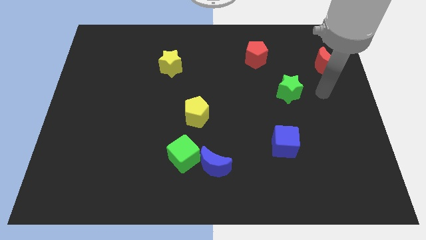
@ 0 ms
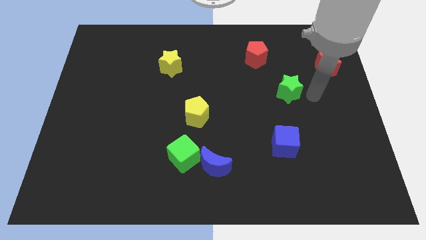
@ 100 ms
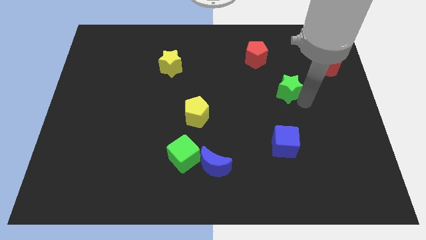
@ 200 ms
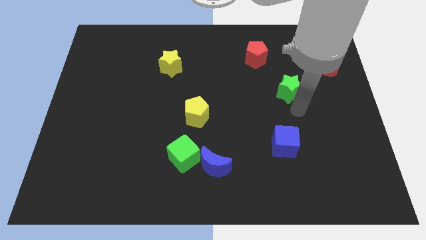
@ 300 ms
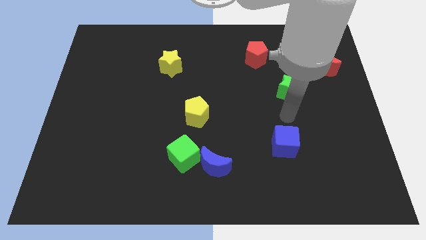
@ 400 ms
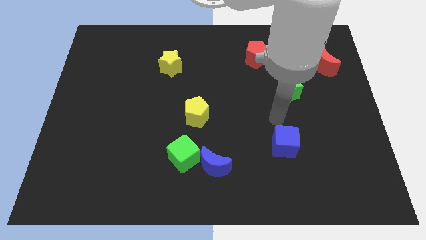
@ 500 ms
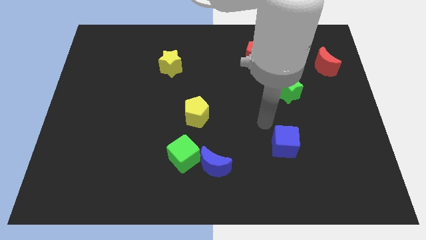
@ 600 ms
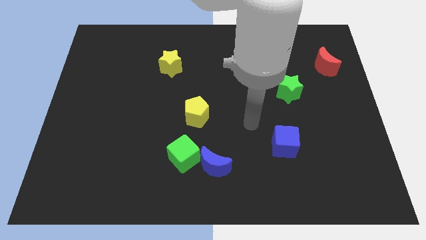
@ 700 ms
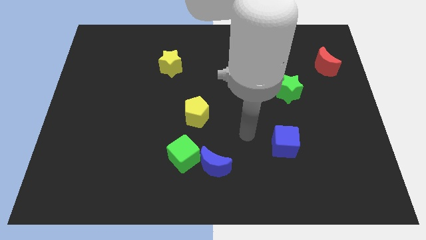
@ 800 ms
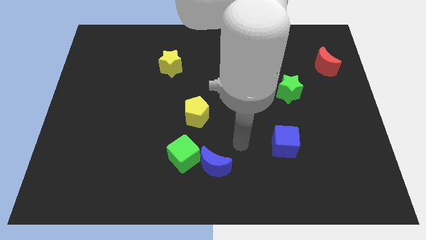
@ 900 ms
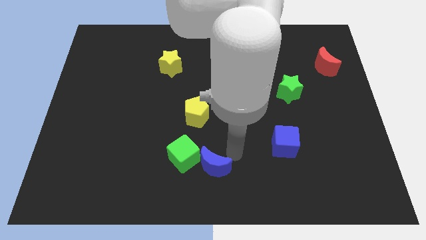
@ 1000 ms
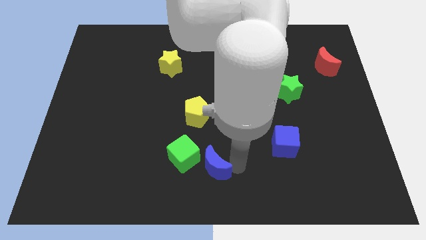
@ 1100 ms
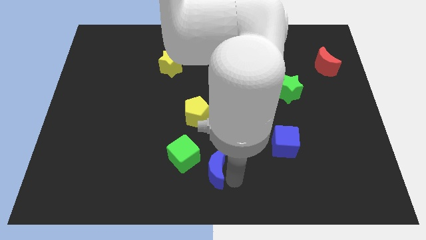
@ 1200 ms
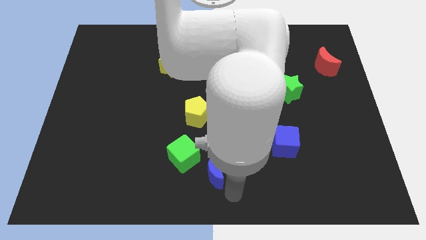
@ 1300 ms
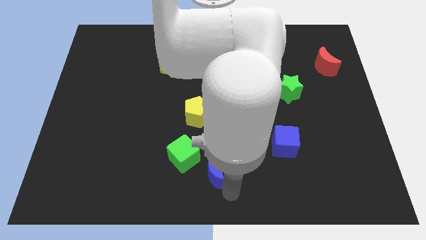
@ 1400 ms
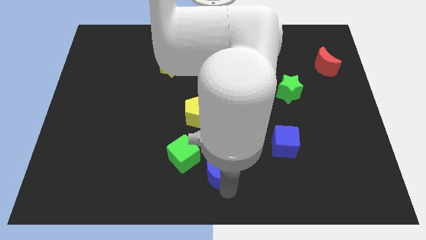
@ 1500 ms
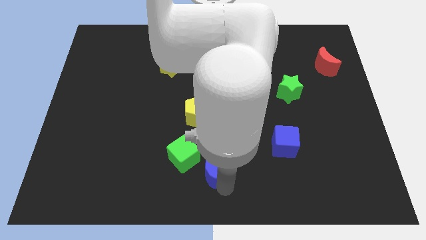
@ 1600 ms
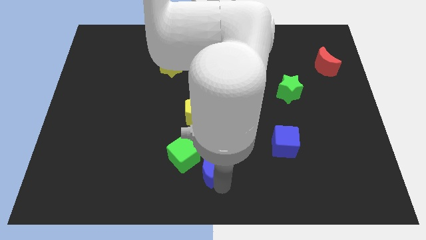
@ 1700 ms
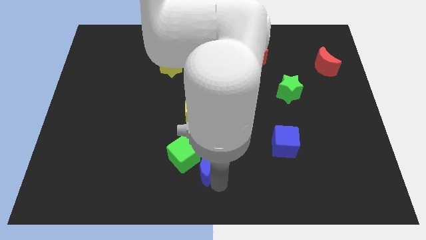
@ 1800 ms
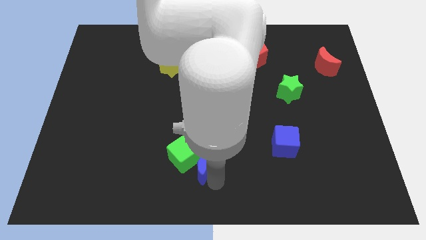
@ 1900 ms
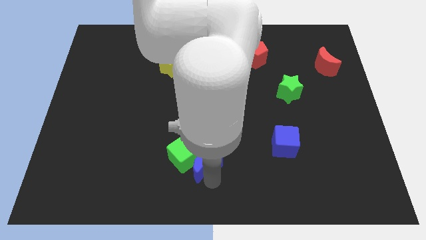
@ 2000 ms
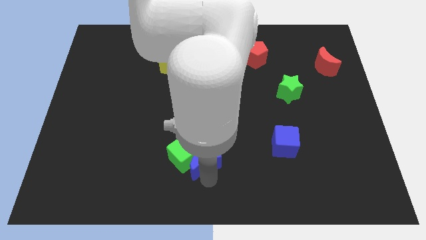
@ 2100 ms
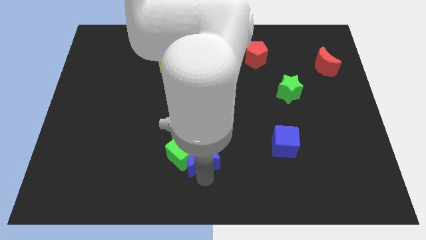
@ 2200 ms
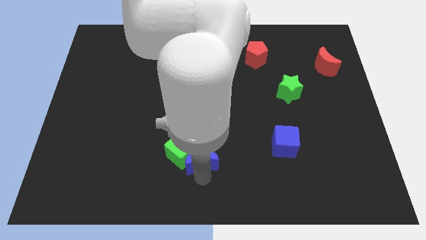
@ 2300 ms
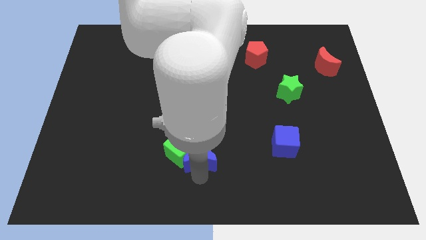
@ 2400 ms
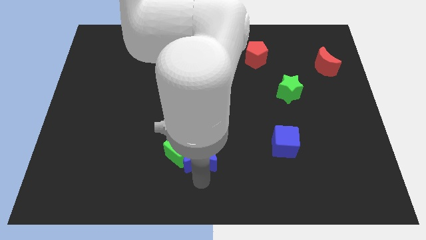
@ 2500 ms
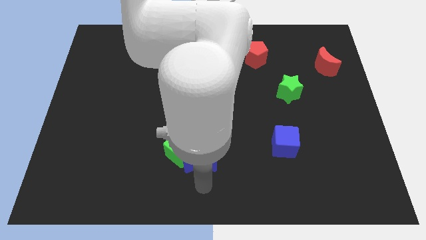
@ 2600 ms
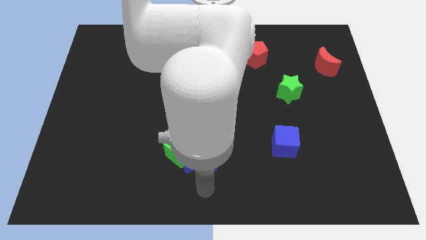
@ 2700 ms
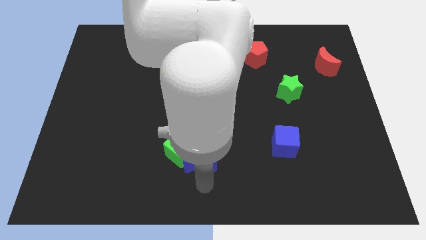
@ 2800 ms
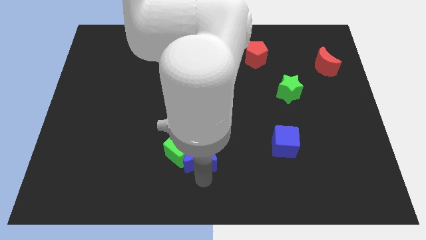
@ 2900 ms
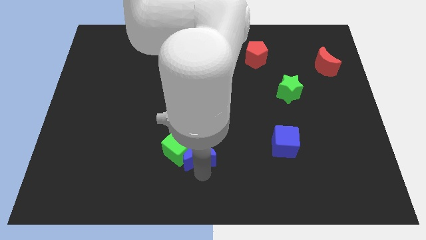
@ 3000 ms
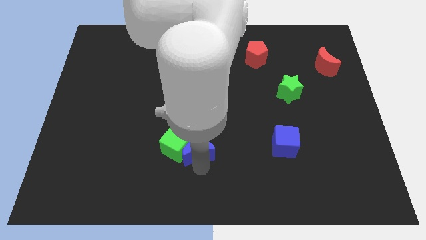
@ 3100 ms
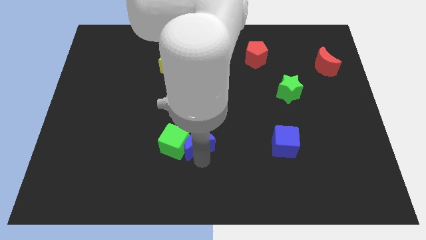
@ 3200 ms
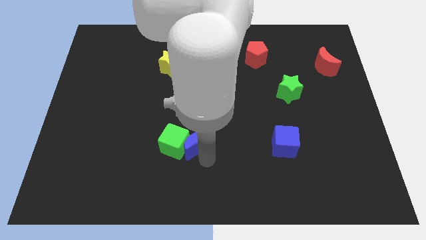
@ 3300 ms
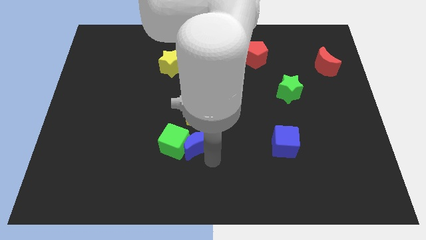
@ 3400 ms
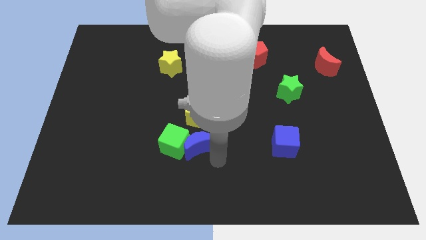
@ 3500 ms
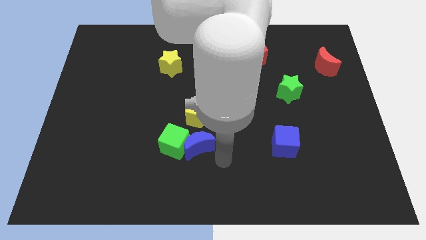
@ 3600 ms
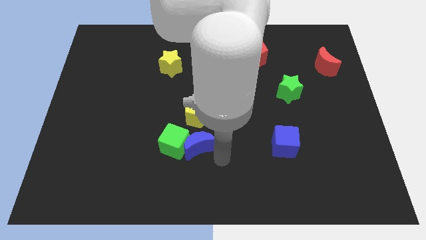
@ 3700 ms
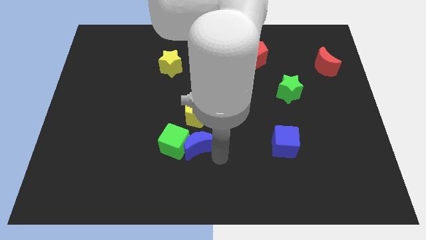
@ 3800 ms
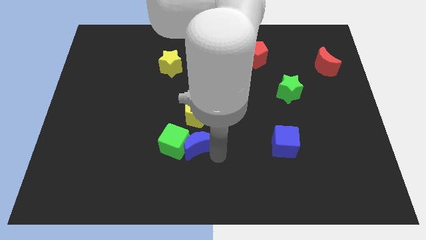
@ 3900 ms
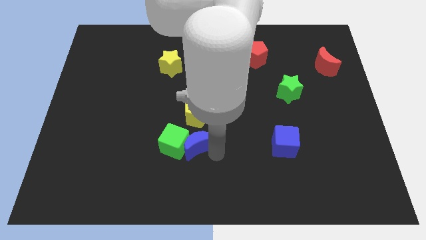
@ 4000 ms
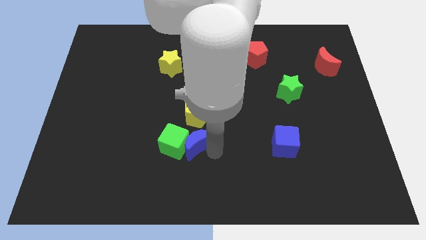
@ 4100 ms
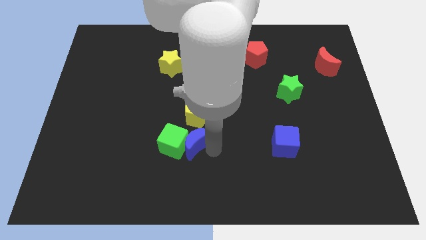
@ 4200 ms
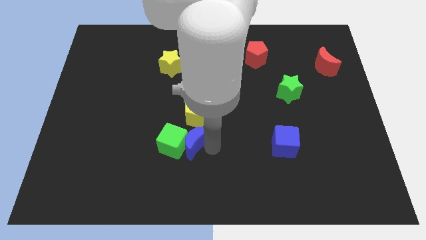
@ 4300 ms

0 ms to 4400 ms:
move the blue moon a little bit up and to the left diagonally

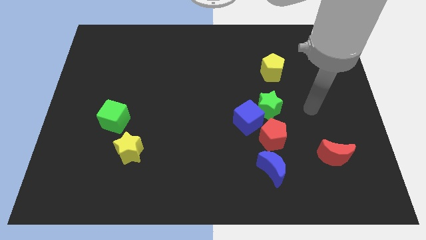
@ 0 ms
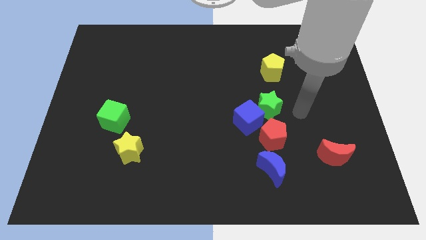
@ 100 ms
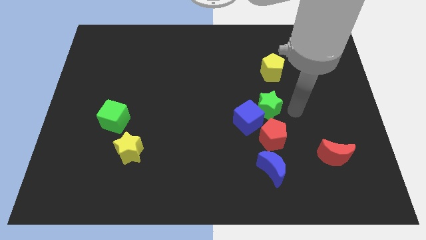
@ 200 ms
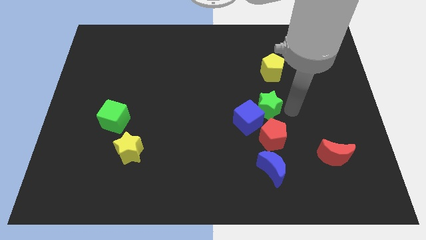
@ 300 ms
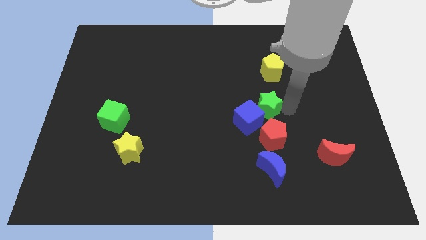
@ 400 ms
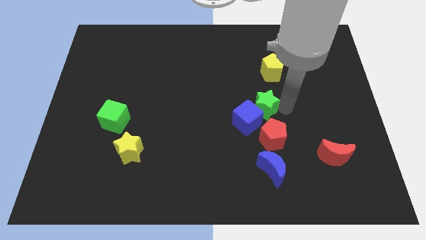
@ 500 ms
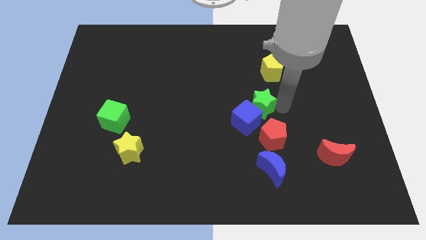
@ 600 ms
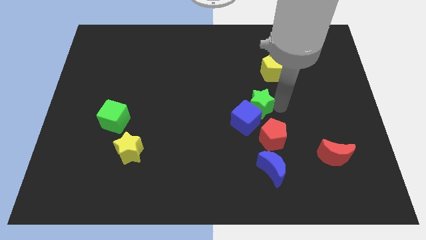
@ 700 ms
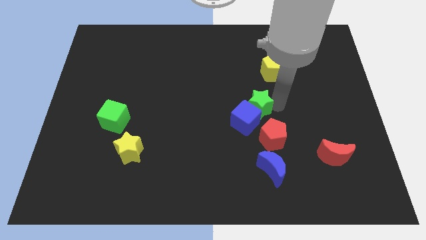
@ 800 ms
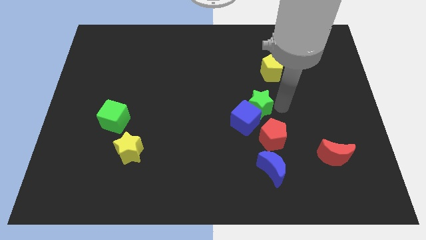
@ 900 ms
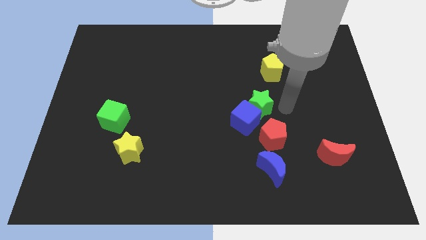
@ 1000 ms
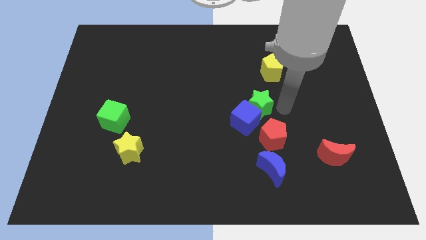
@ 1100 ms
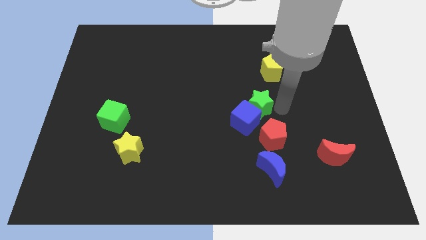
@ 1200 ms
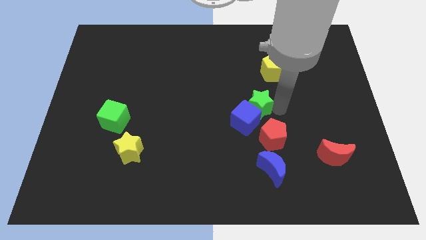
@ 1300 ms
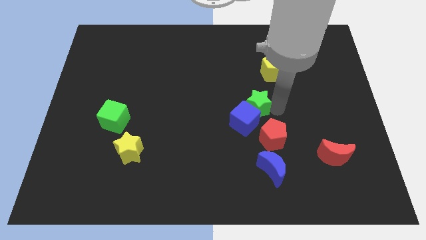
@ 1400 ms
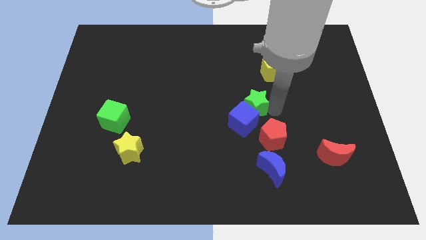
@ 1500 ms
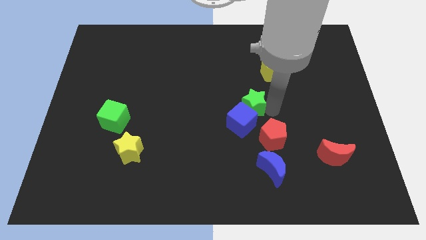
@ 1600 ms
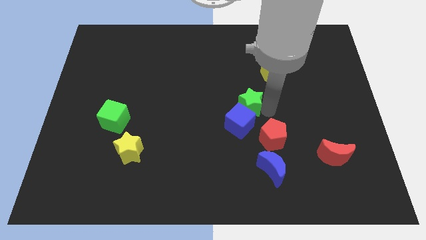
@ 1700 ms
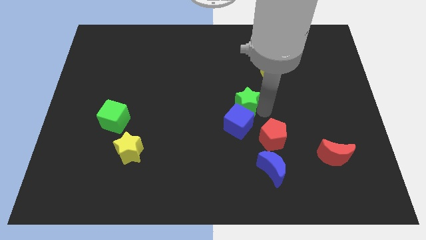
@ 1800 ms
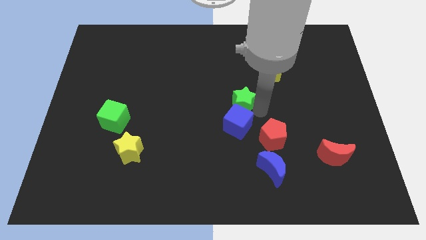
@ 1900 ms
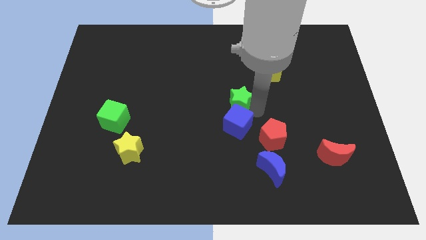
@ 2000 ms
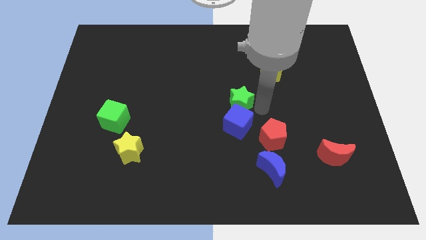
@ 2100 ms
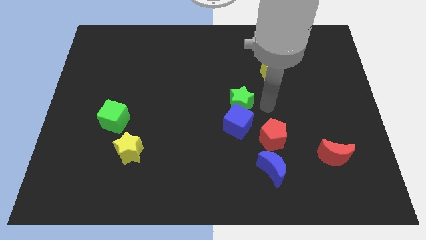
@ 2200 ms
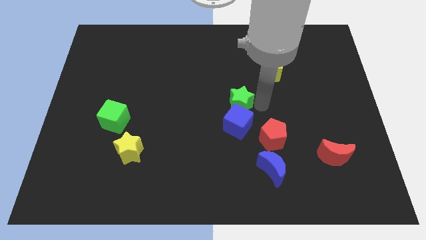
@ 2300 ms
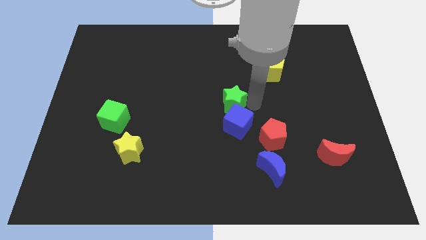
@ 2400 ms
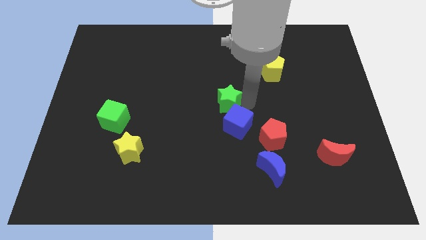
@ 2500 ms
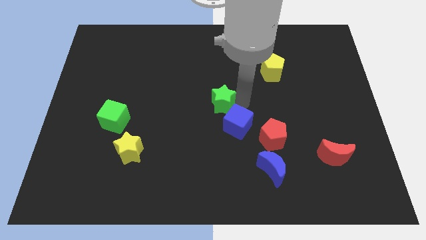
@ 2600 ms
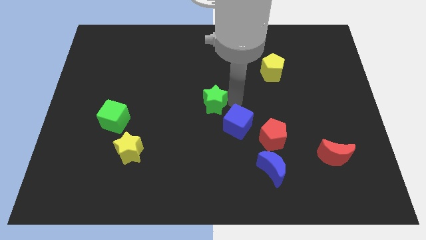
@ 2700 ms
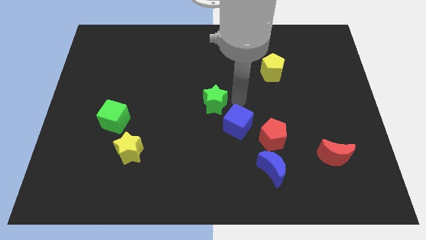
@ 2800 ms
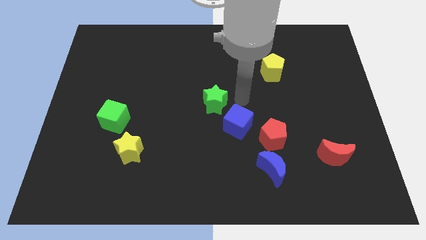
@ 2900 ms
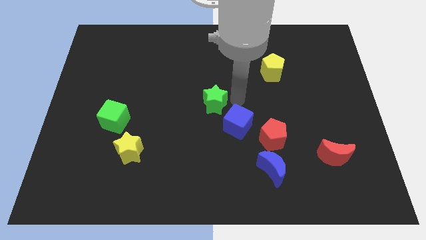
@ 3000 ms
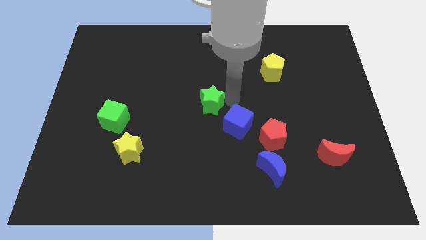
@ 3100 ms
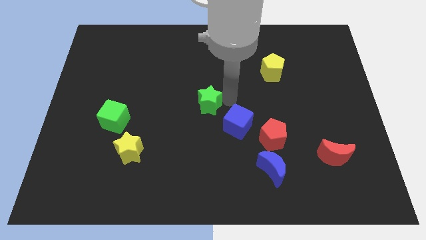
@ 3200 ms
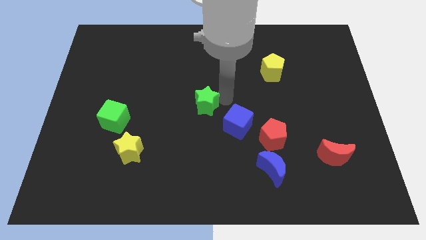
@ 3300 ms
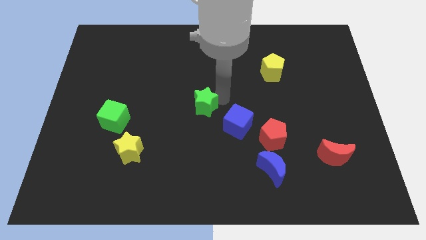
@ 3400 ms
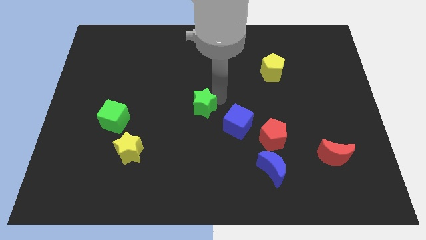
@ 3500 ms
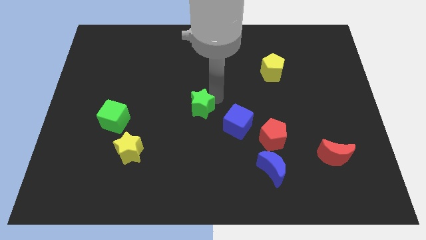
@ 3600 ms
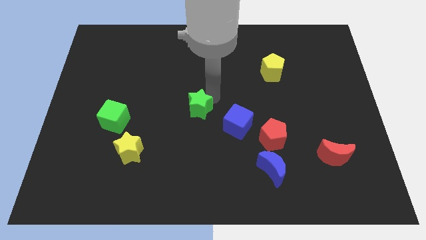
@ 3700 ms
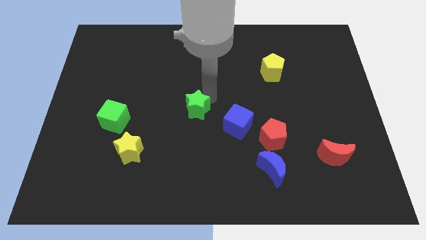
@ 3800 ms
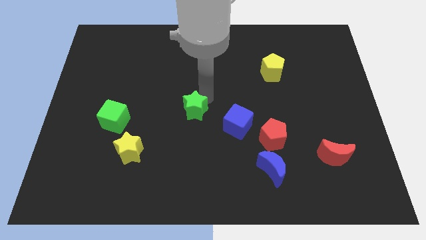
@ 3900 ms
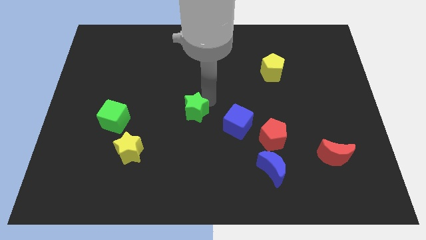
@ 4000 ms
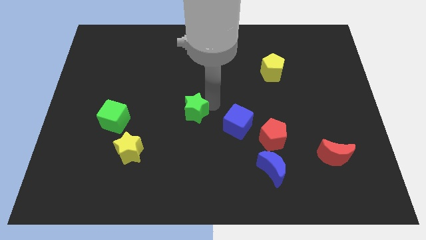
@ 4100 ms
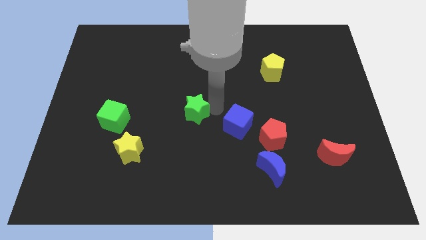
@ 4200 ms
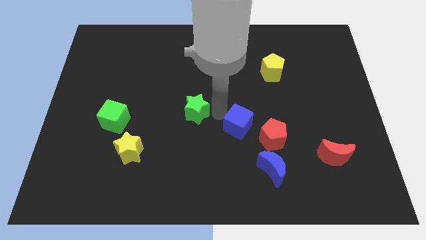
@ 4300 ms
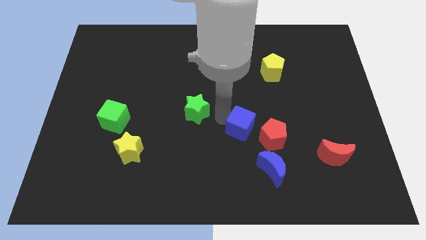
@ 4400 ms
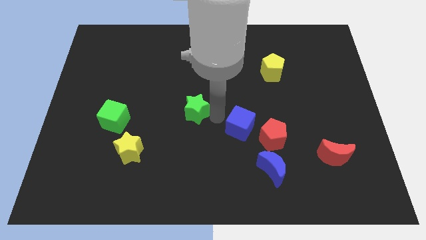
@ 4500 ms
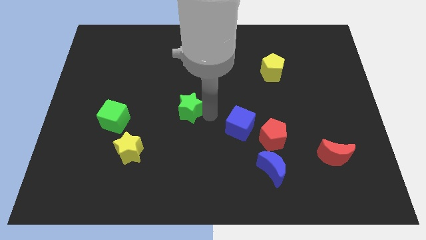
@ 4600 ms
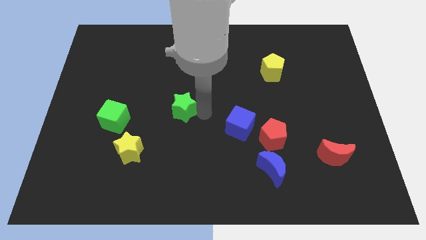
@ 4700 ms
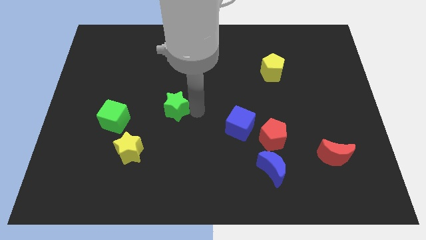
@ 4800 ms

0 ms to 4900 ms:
push the green star left
